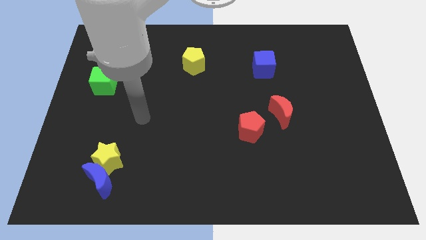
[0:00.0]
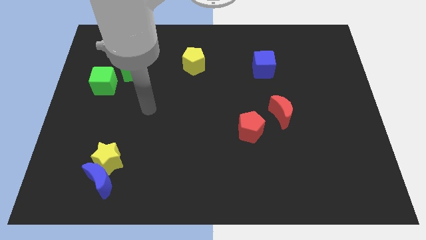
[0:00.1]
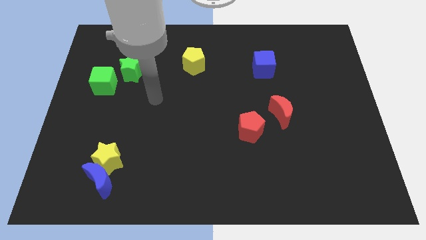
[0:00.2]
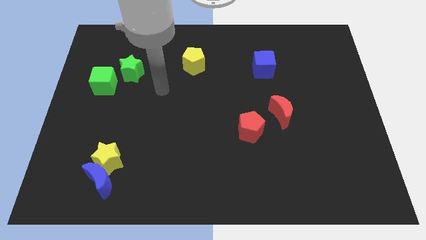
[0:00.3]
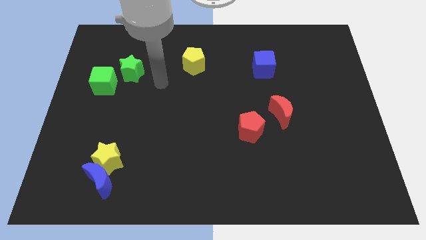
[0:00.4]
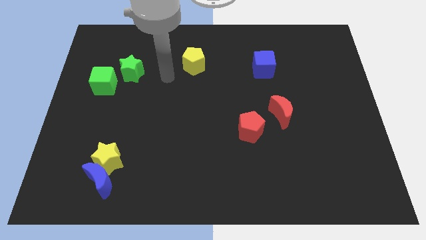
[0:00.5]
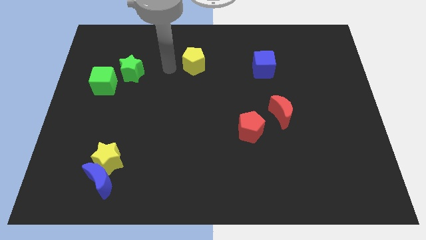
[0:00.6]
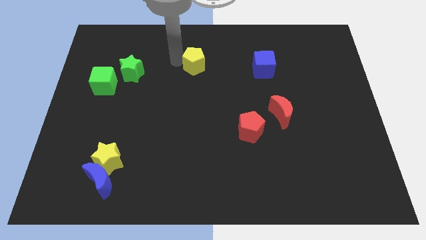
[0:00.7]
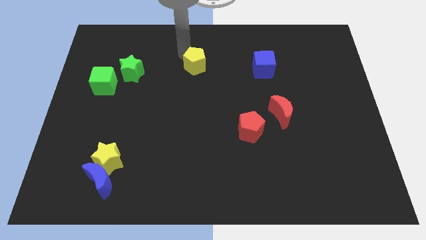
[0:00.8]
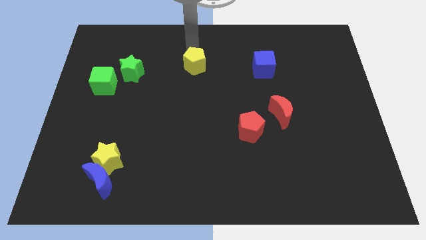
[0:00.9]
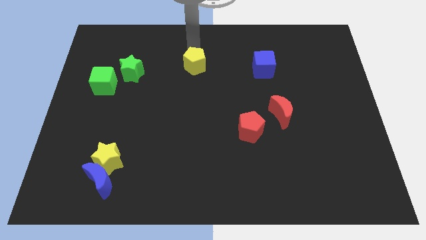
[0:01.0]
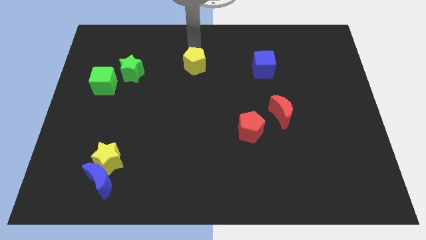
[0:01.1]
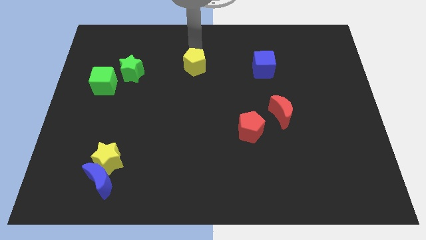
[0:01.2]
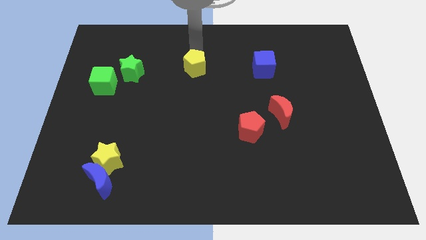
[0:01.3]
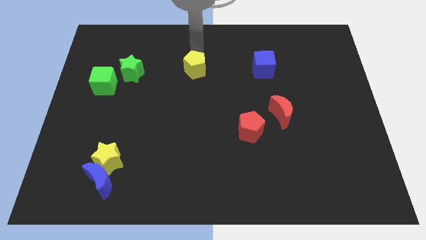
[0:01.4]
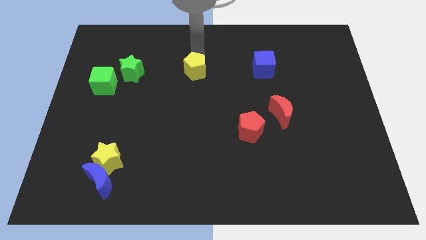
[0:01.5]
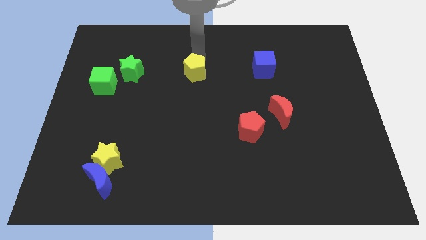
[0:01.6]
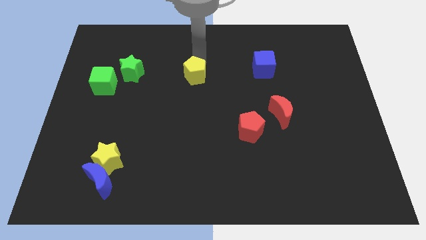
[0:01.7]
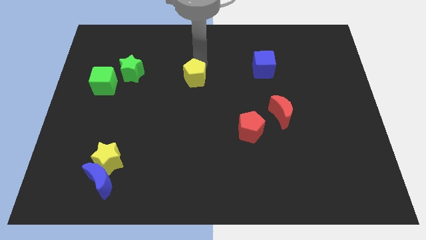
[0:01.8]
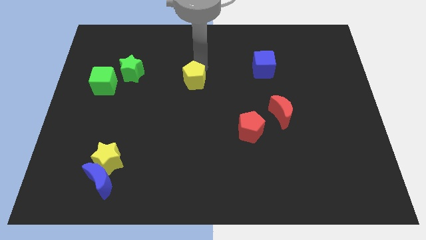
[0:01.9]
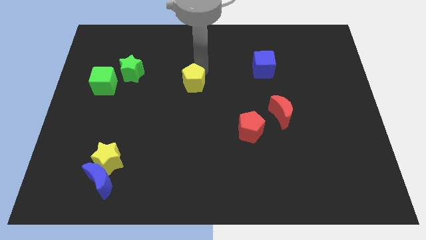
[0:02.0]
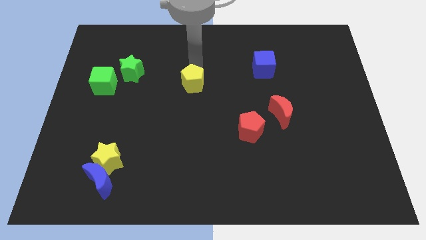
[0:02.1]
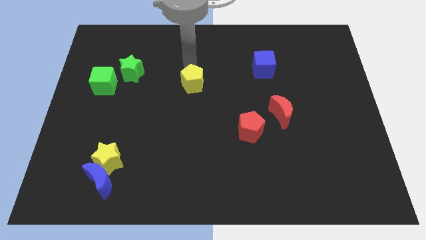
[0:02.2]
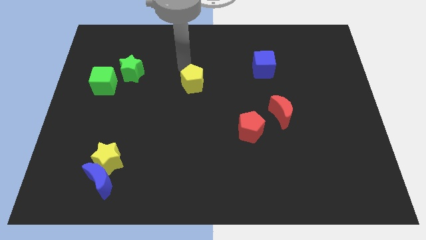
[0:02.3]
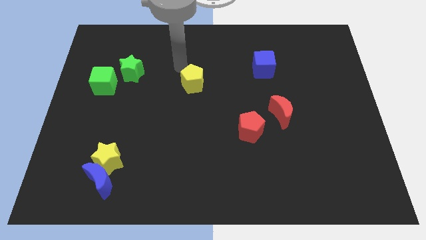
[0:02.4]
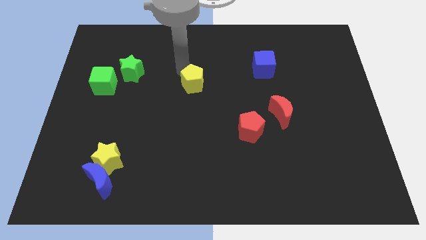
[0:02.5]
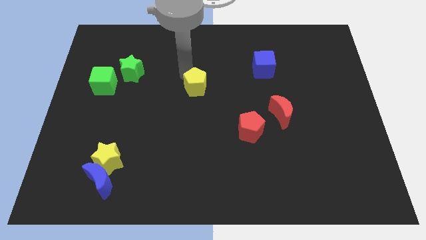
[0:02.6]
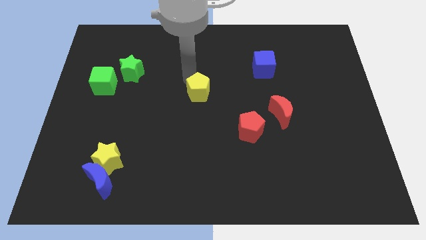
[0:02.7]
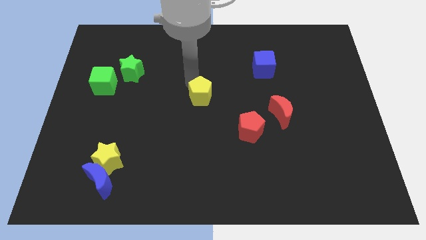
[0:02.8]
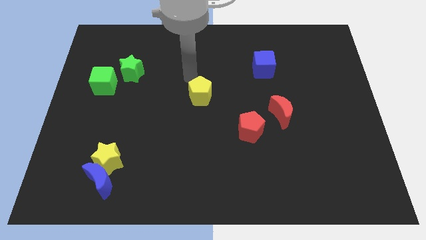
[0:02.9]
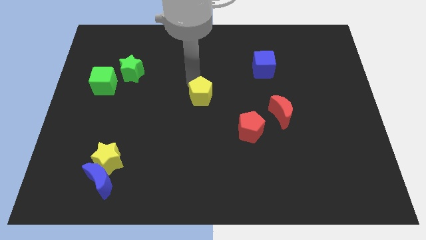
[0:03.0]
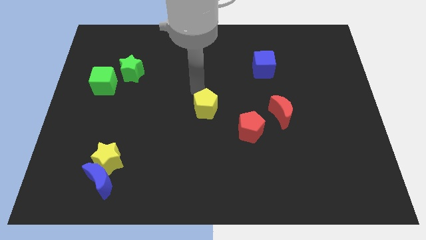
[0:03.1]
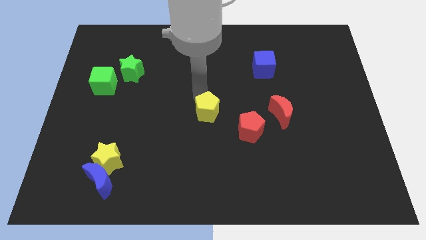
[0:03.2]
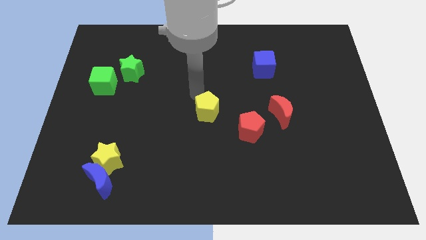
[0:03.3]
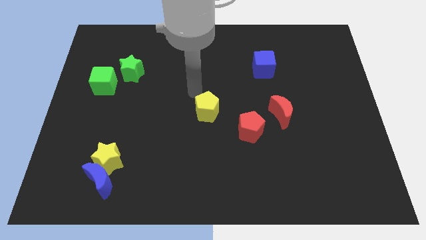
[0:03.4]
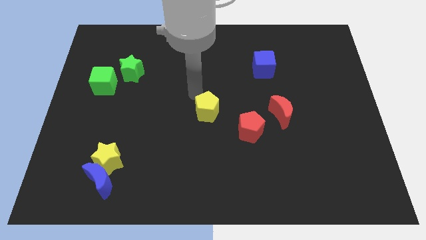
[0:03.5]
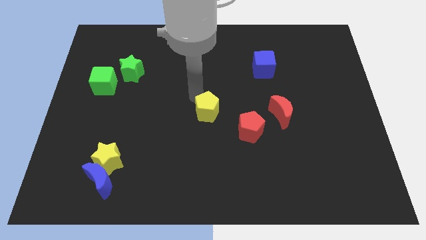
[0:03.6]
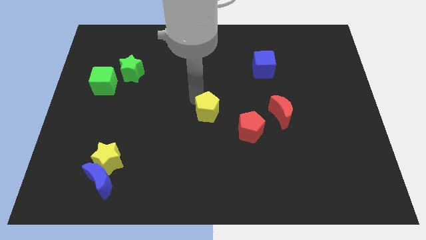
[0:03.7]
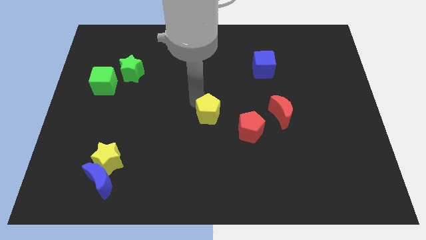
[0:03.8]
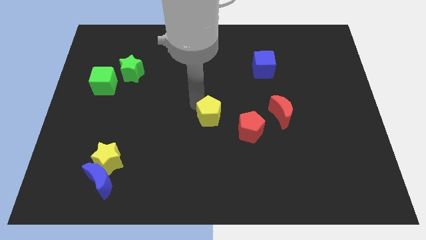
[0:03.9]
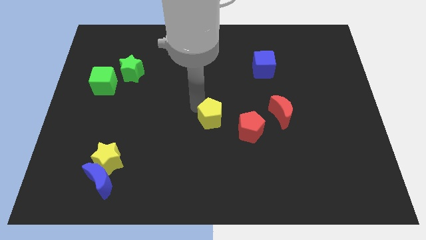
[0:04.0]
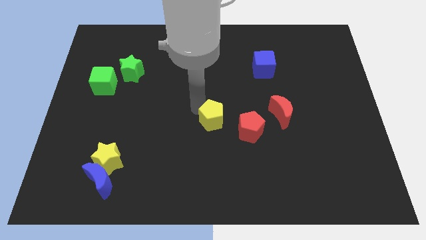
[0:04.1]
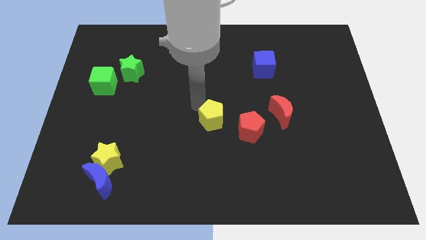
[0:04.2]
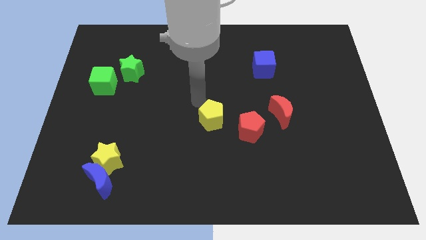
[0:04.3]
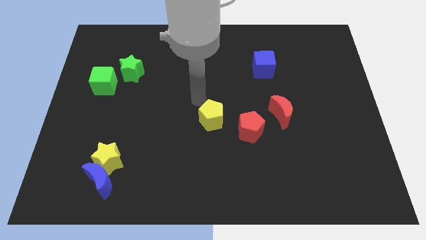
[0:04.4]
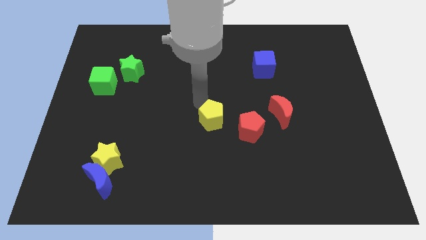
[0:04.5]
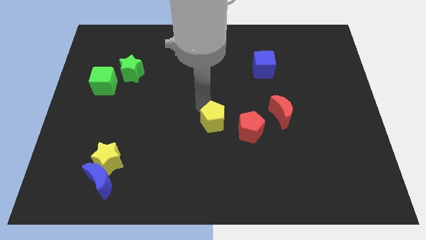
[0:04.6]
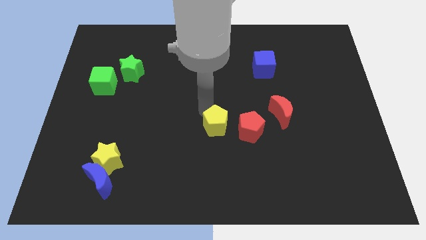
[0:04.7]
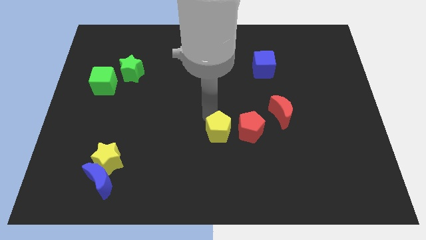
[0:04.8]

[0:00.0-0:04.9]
put the yellow pentagon to the bottom left side of the red pentagon

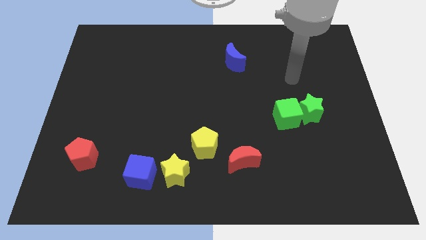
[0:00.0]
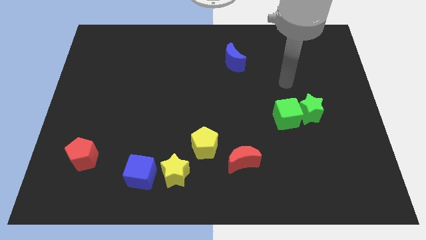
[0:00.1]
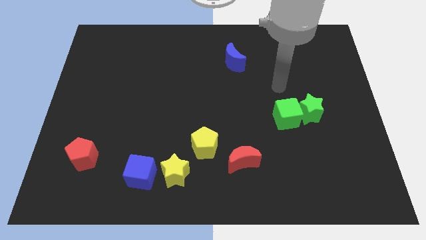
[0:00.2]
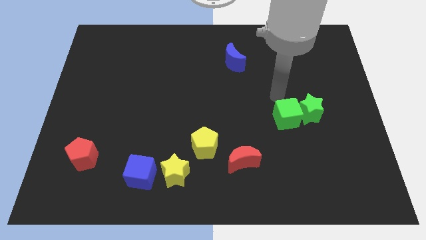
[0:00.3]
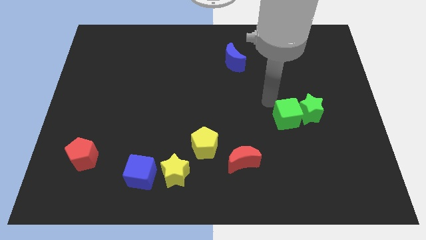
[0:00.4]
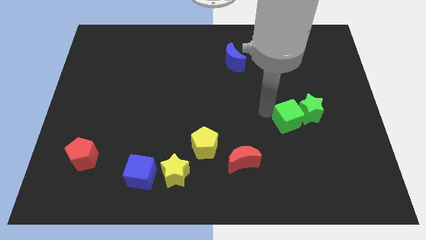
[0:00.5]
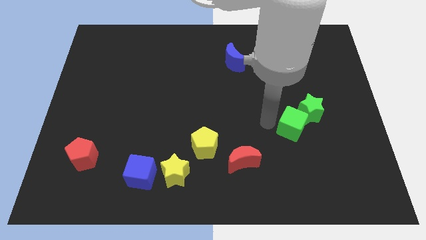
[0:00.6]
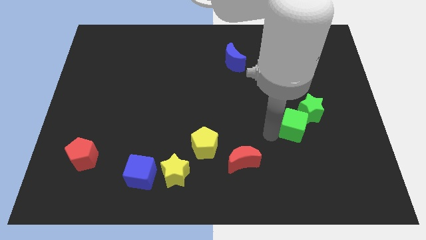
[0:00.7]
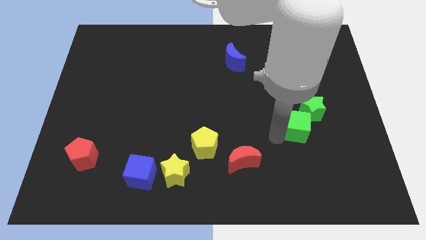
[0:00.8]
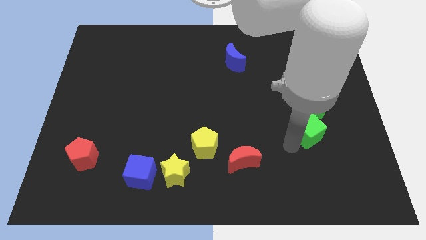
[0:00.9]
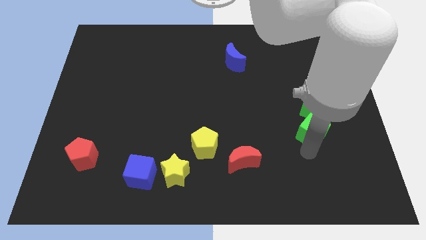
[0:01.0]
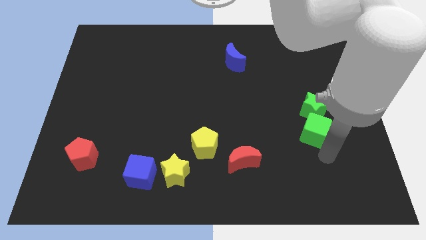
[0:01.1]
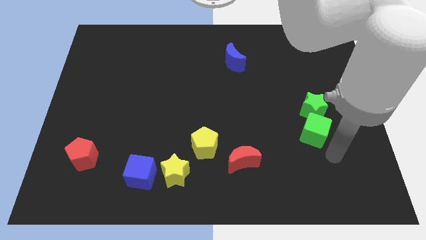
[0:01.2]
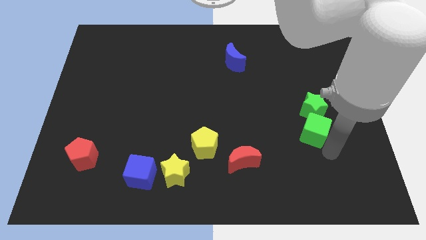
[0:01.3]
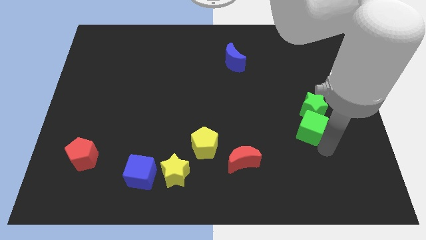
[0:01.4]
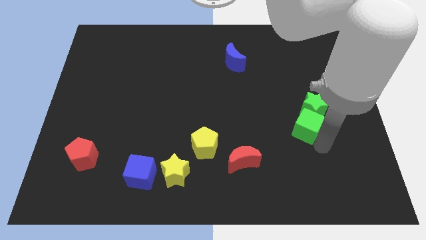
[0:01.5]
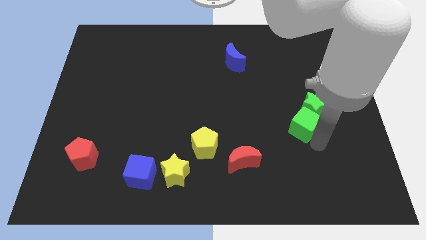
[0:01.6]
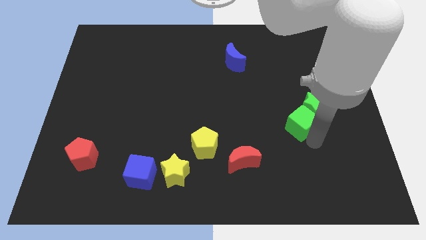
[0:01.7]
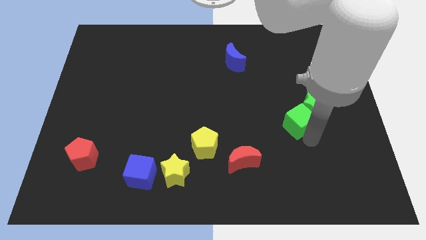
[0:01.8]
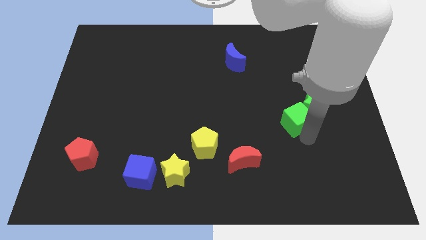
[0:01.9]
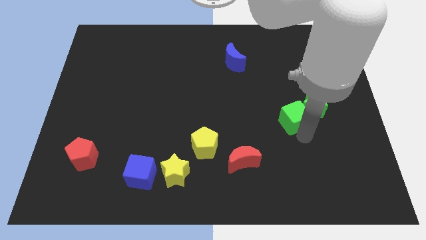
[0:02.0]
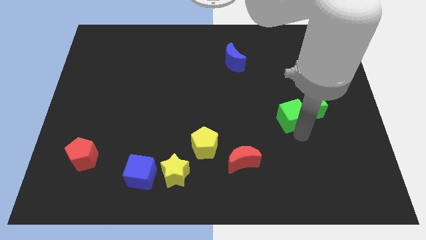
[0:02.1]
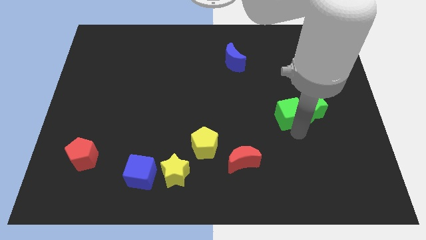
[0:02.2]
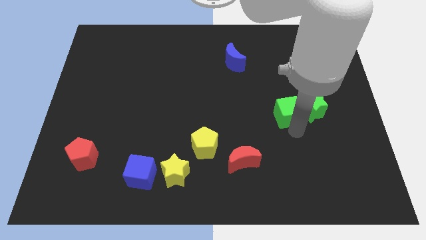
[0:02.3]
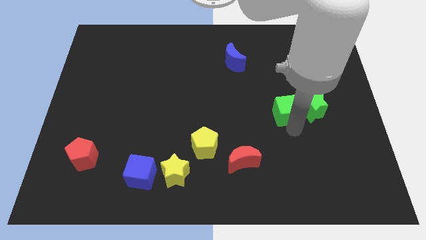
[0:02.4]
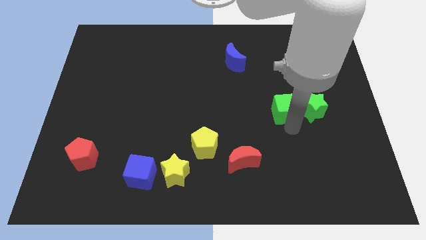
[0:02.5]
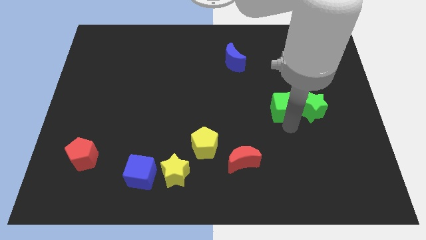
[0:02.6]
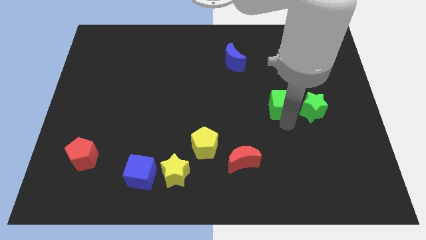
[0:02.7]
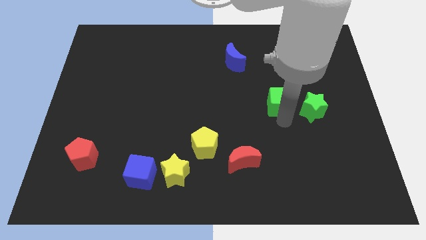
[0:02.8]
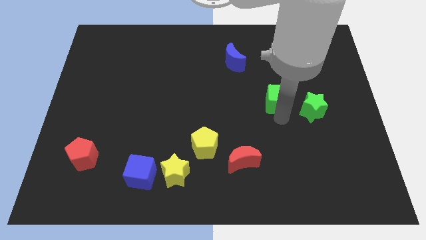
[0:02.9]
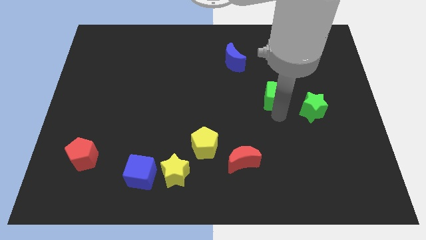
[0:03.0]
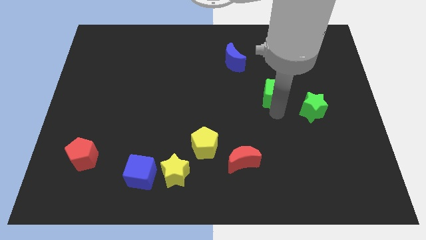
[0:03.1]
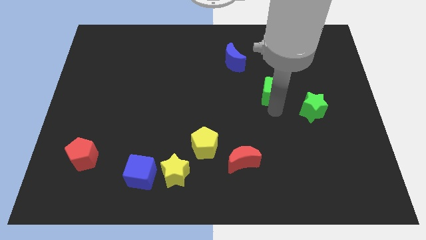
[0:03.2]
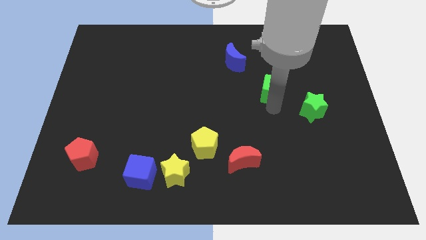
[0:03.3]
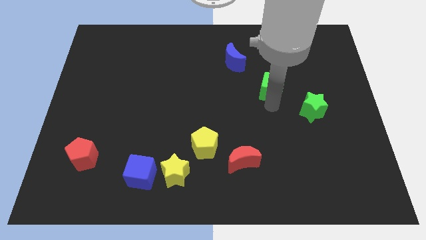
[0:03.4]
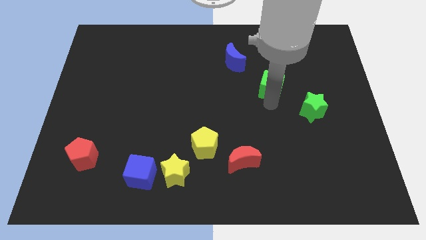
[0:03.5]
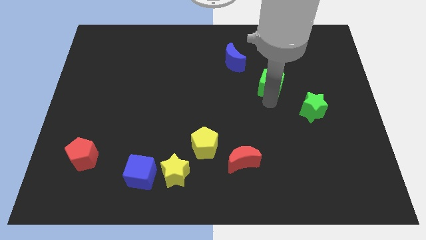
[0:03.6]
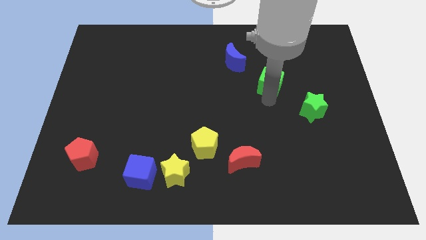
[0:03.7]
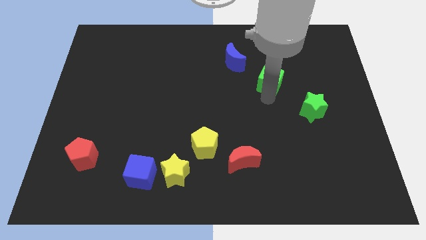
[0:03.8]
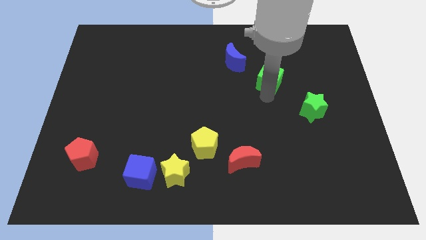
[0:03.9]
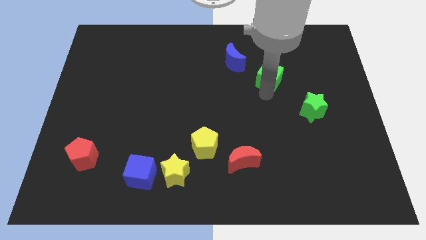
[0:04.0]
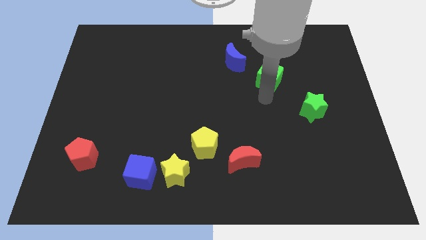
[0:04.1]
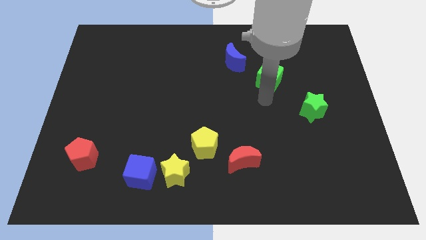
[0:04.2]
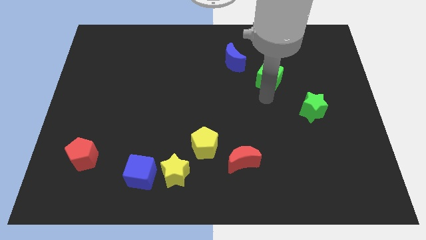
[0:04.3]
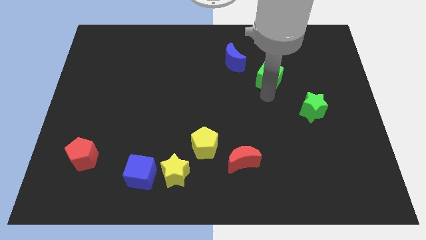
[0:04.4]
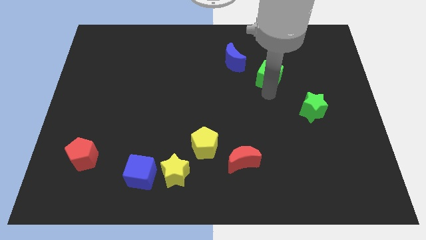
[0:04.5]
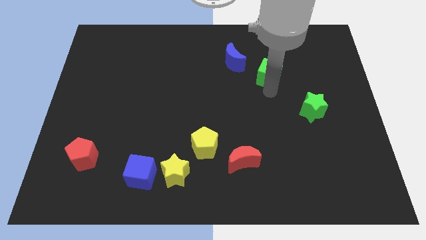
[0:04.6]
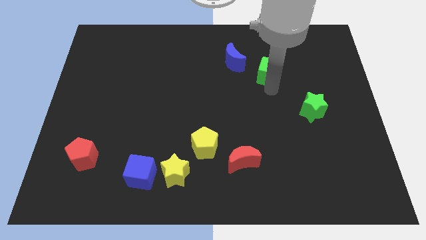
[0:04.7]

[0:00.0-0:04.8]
put the green cube to the right side of the blue moon
